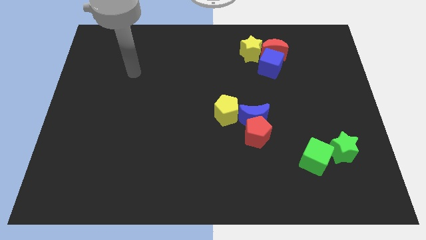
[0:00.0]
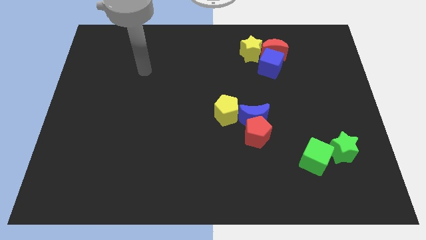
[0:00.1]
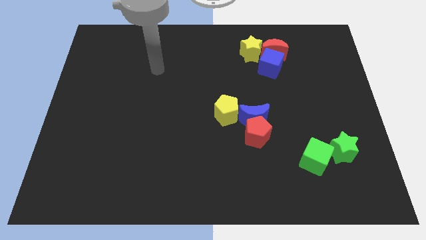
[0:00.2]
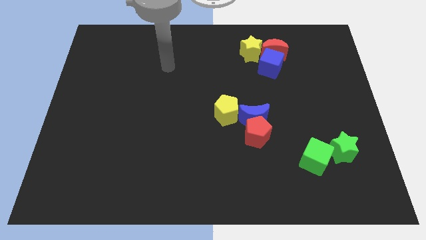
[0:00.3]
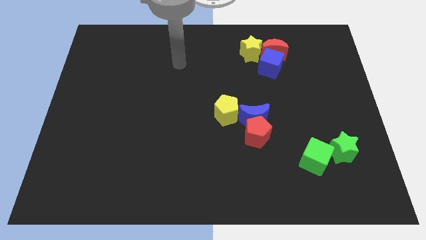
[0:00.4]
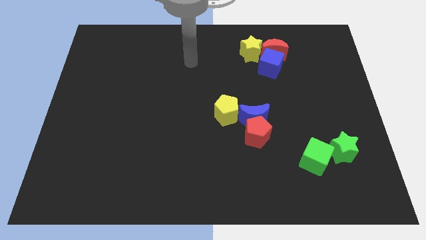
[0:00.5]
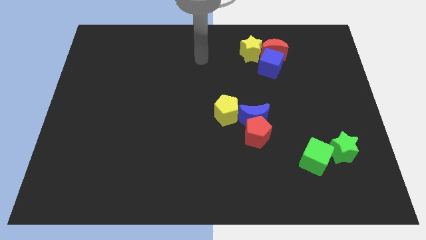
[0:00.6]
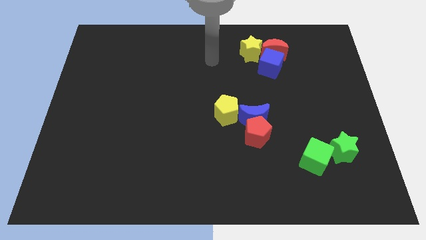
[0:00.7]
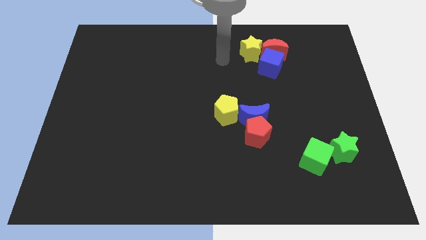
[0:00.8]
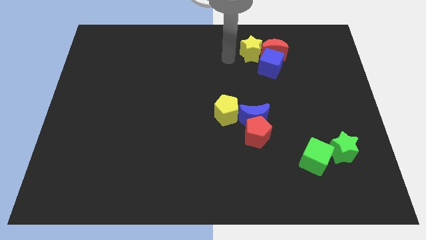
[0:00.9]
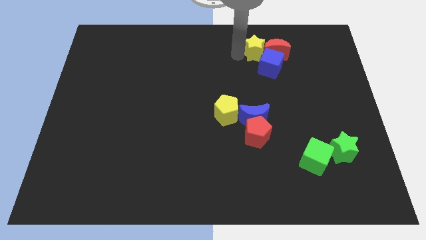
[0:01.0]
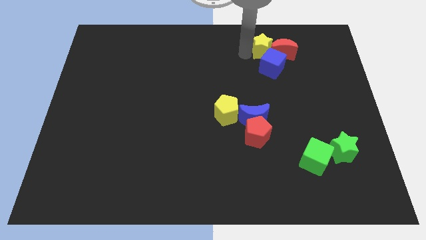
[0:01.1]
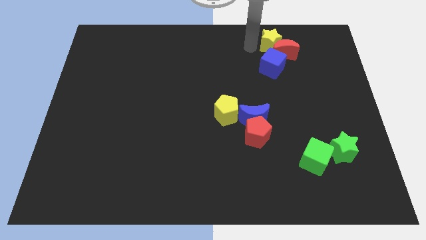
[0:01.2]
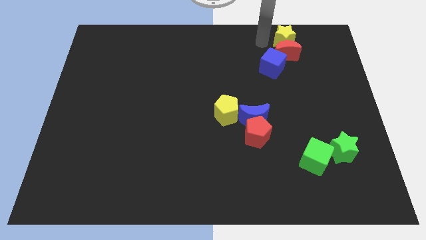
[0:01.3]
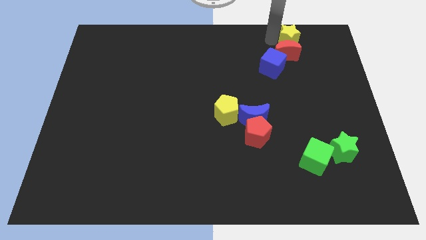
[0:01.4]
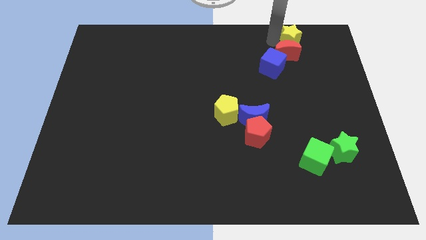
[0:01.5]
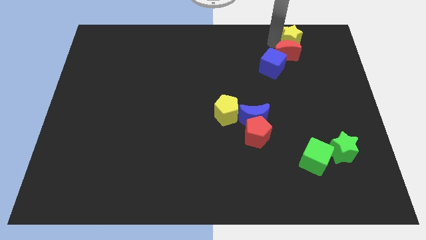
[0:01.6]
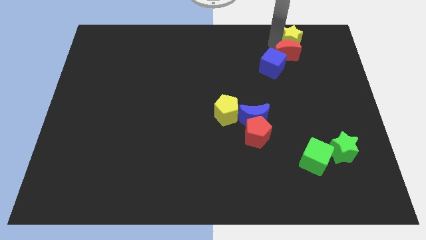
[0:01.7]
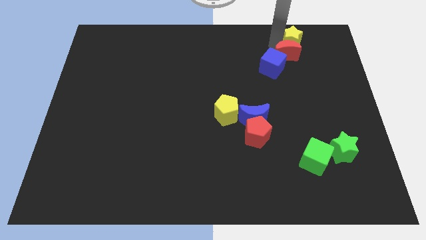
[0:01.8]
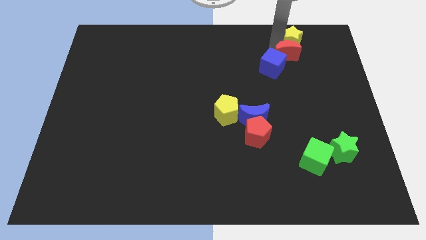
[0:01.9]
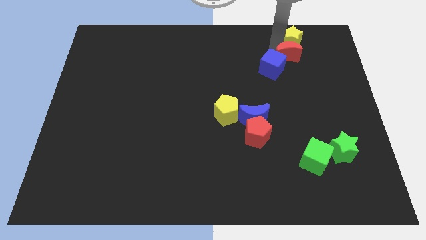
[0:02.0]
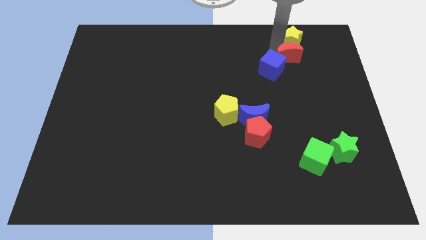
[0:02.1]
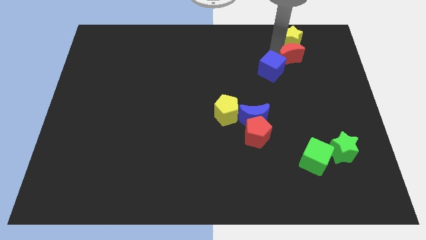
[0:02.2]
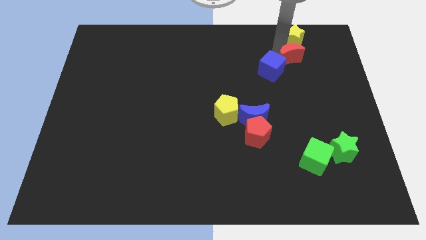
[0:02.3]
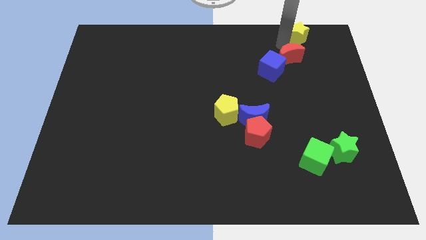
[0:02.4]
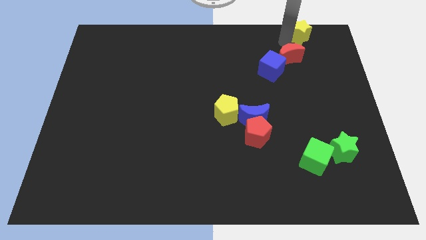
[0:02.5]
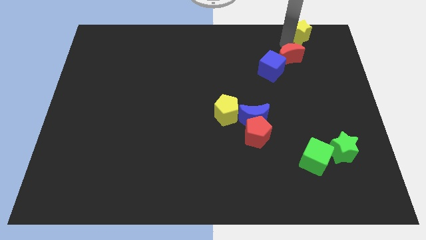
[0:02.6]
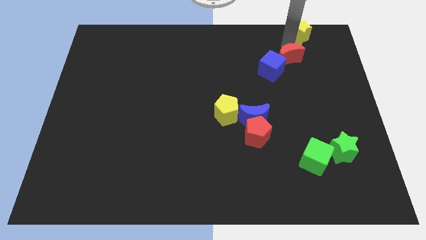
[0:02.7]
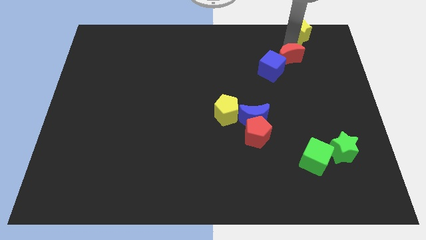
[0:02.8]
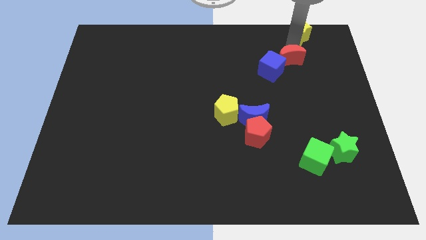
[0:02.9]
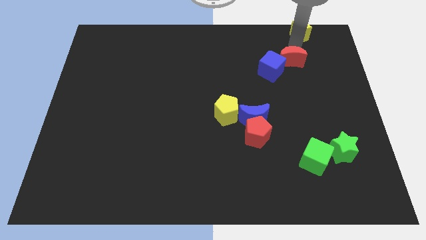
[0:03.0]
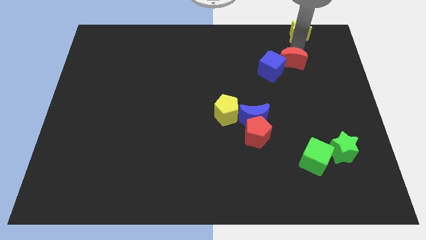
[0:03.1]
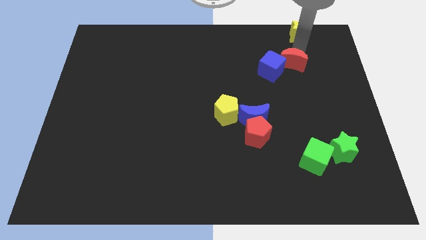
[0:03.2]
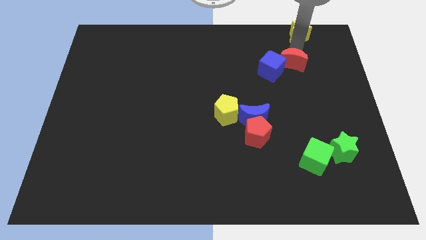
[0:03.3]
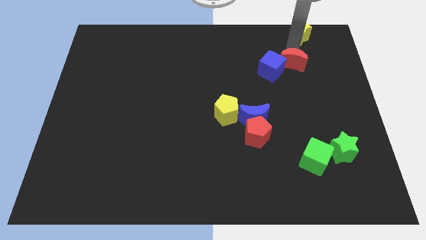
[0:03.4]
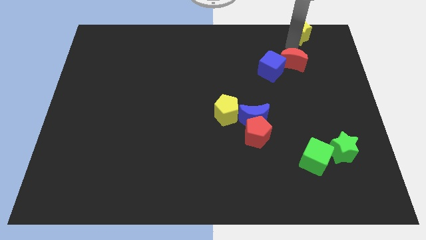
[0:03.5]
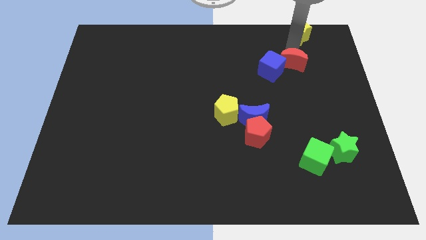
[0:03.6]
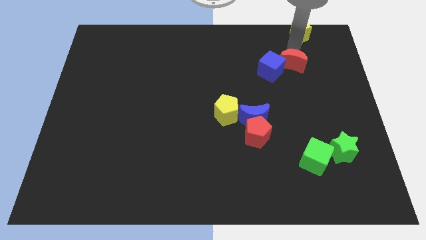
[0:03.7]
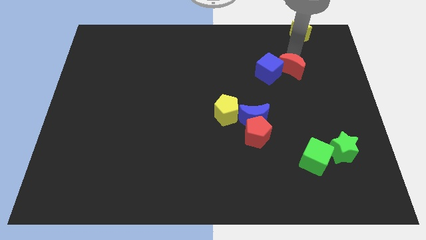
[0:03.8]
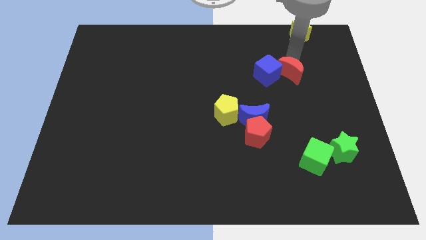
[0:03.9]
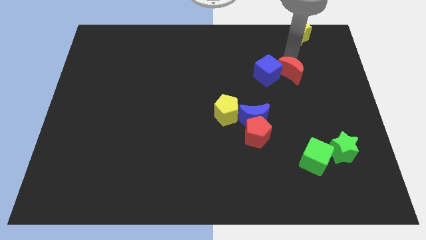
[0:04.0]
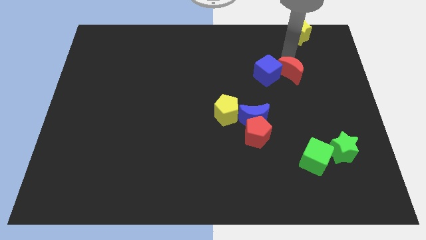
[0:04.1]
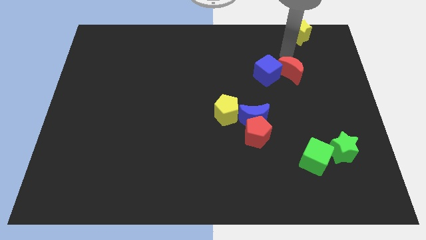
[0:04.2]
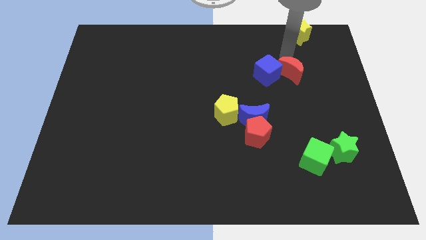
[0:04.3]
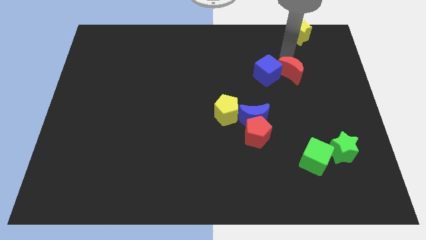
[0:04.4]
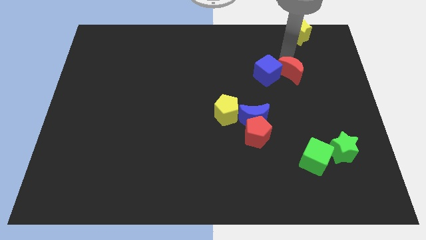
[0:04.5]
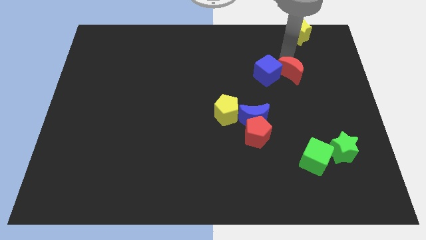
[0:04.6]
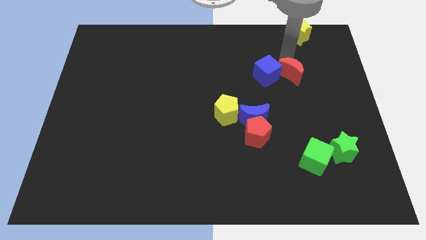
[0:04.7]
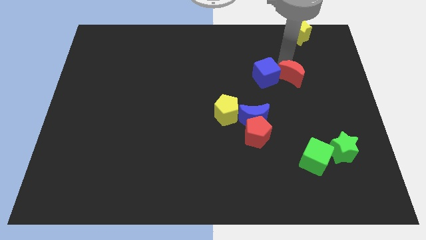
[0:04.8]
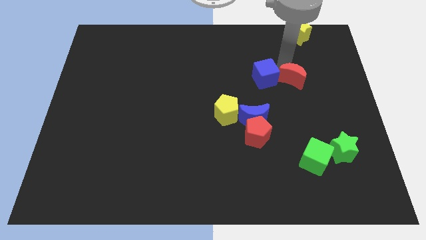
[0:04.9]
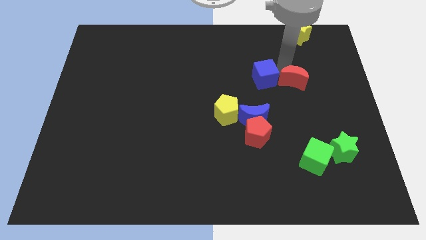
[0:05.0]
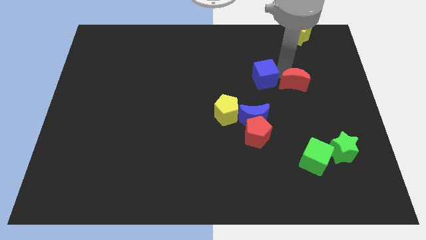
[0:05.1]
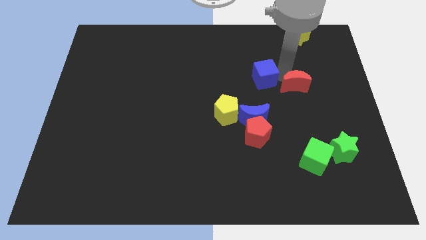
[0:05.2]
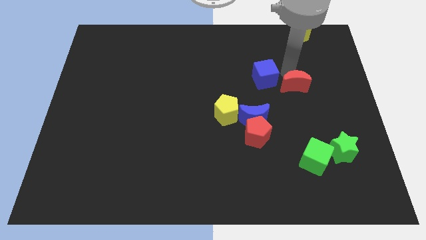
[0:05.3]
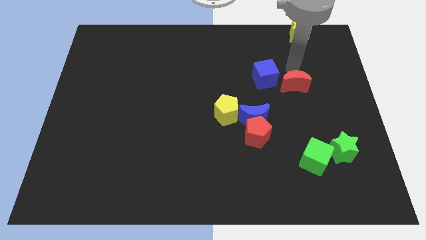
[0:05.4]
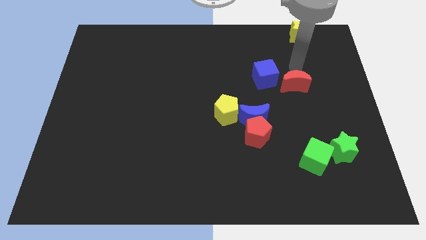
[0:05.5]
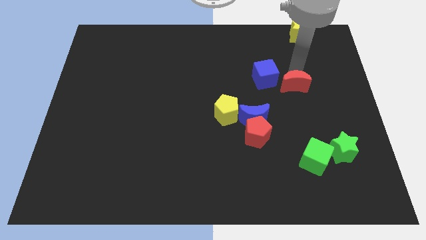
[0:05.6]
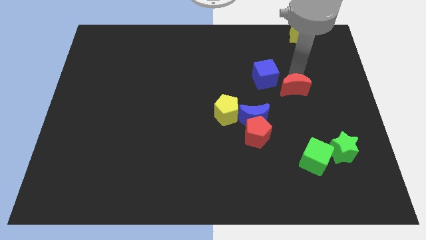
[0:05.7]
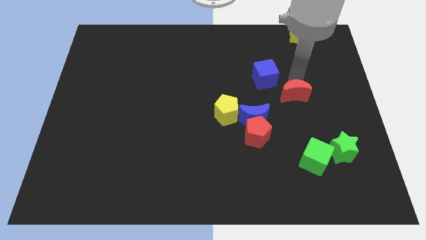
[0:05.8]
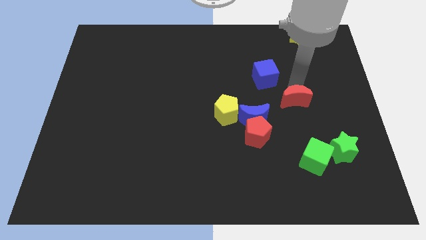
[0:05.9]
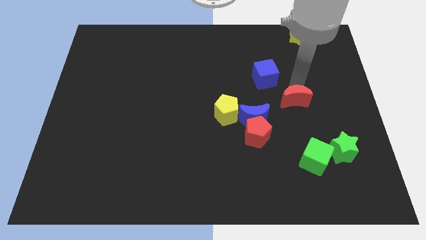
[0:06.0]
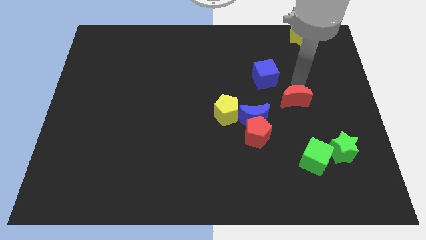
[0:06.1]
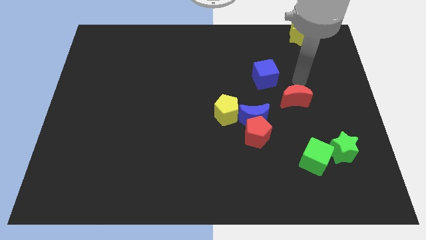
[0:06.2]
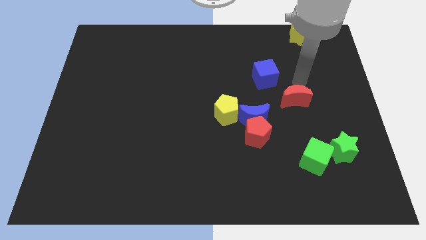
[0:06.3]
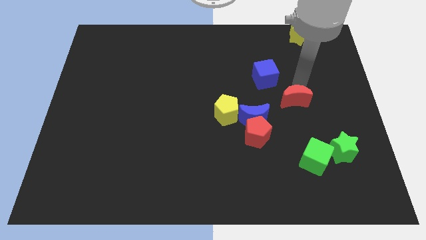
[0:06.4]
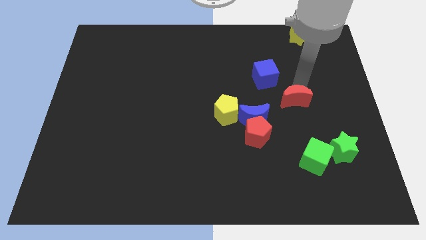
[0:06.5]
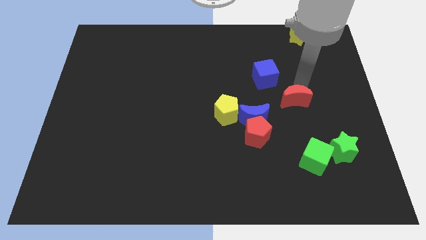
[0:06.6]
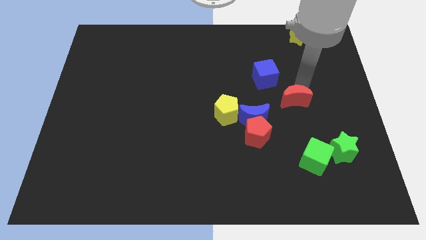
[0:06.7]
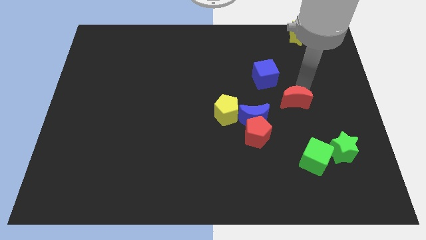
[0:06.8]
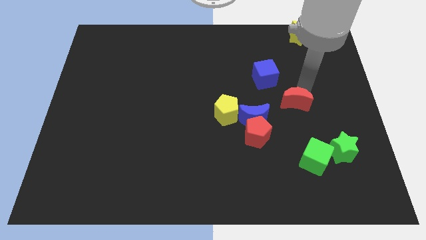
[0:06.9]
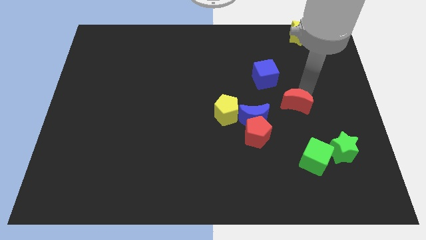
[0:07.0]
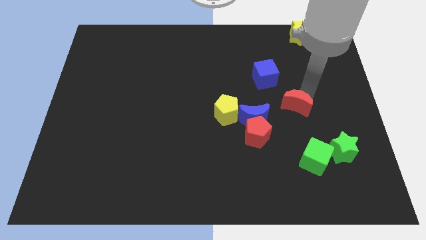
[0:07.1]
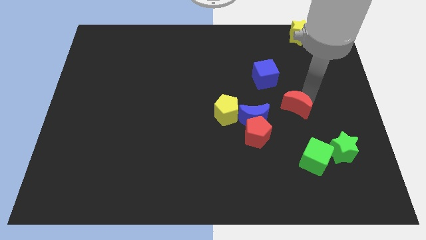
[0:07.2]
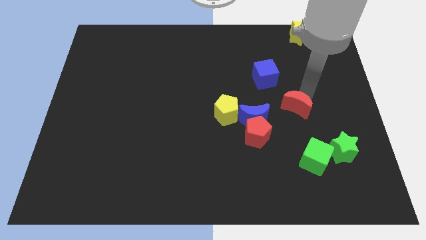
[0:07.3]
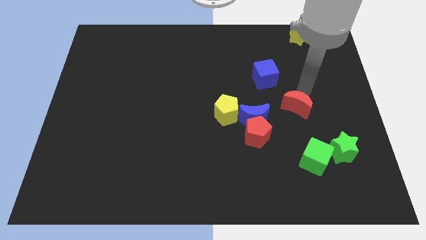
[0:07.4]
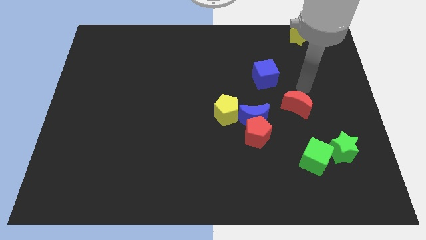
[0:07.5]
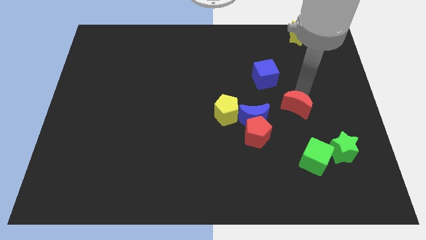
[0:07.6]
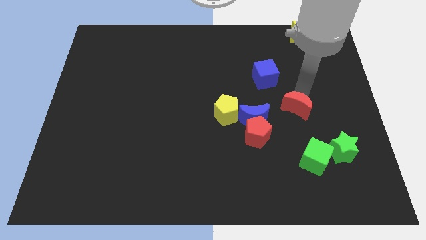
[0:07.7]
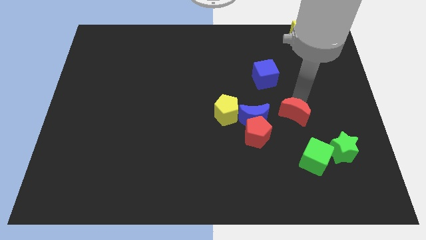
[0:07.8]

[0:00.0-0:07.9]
push the red moon downwards

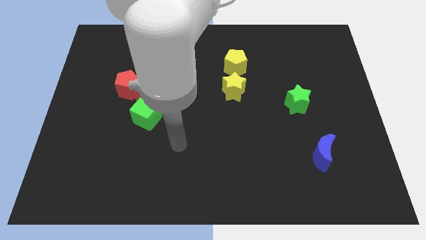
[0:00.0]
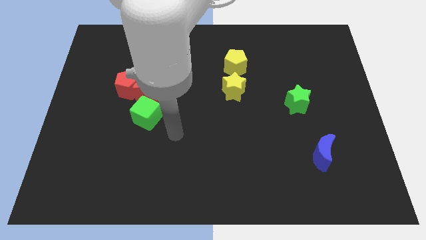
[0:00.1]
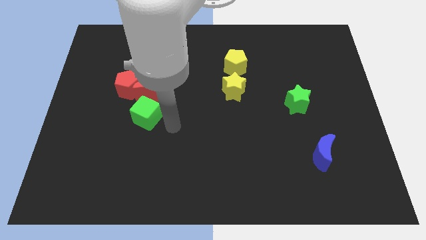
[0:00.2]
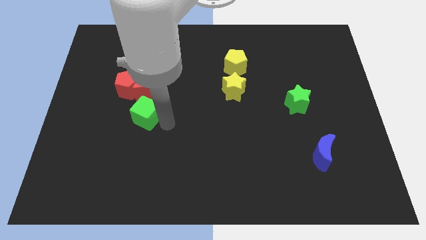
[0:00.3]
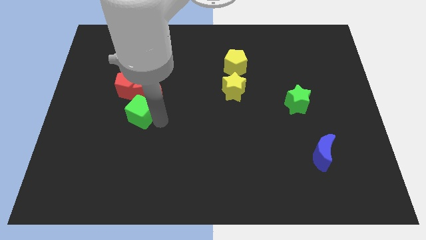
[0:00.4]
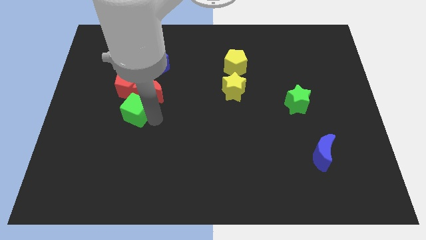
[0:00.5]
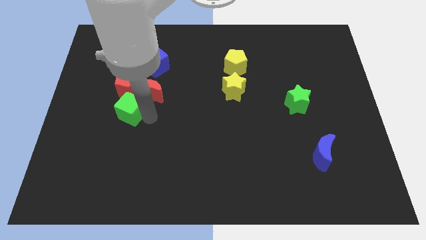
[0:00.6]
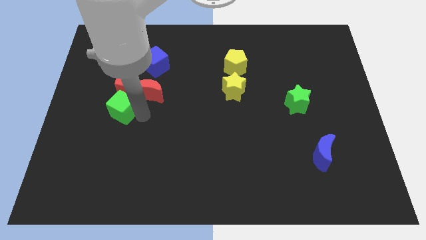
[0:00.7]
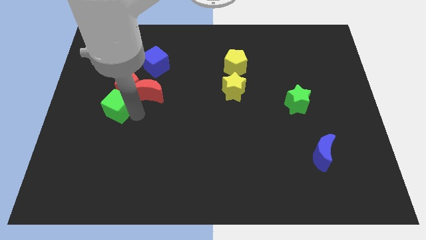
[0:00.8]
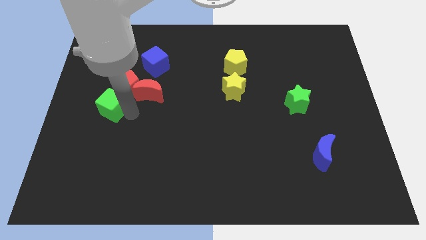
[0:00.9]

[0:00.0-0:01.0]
push the green cube a little bit diagonally upwards and left

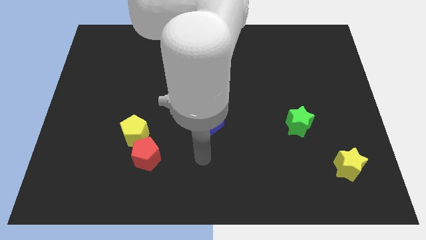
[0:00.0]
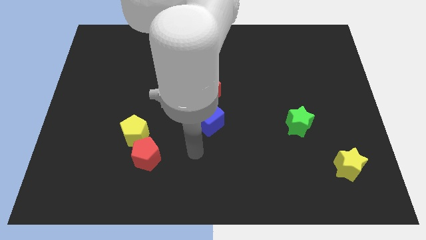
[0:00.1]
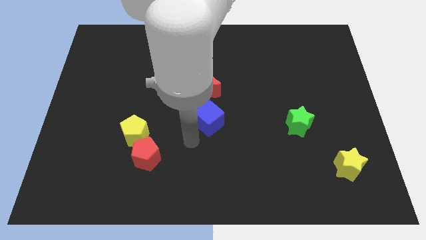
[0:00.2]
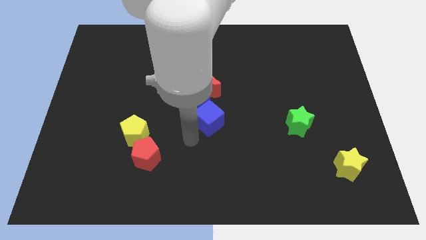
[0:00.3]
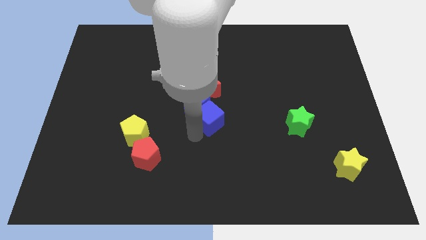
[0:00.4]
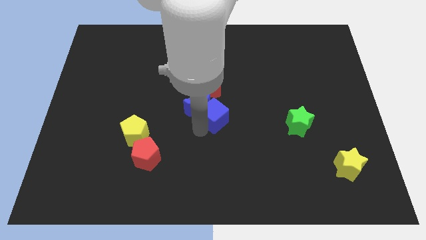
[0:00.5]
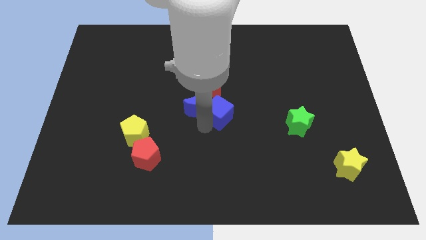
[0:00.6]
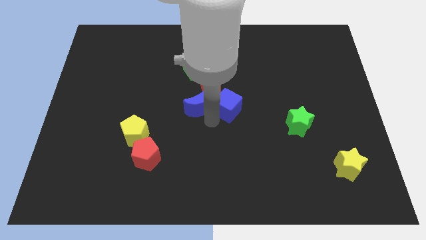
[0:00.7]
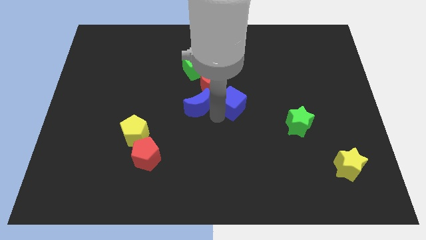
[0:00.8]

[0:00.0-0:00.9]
slightly slide the blue cube up and to the right
